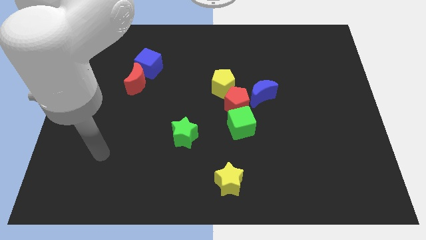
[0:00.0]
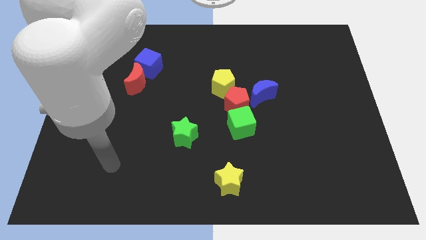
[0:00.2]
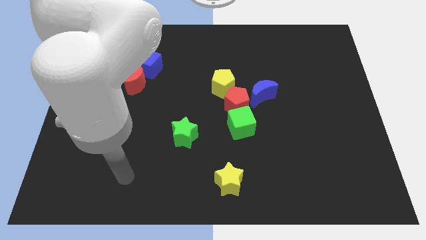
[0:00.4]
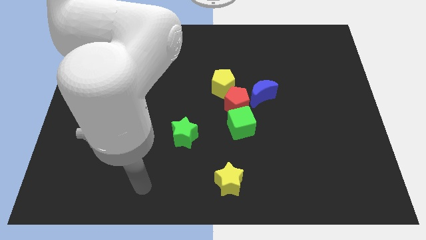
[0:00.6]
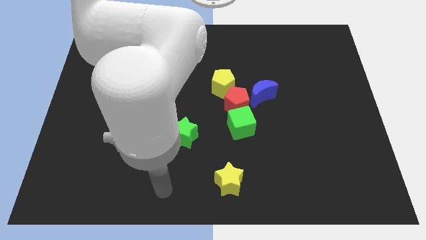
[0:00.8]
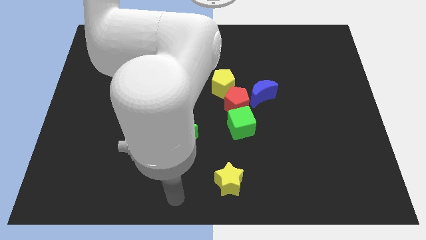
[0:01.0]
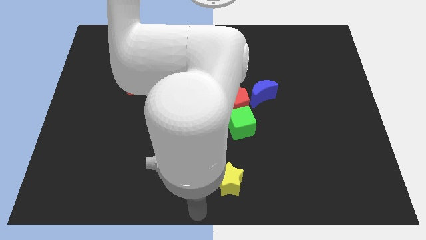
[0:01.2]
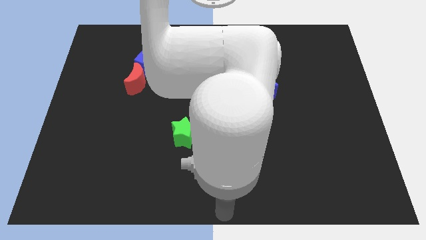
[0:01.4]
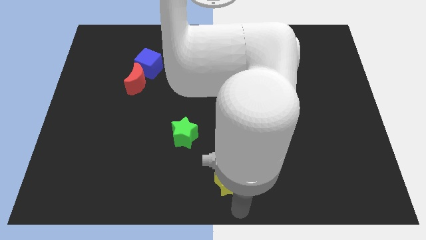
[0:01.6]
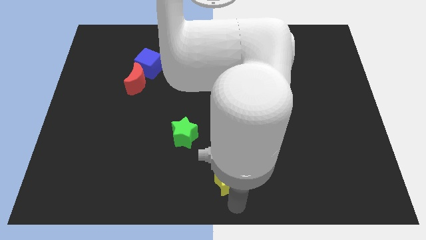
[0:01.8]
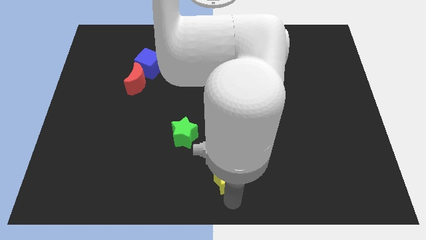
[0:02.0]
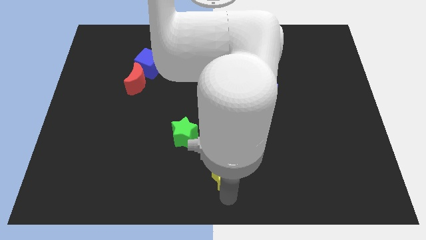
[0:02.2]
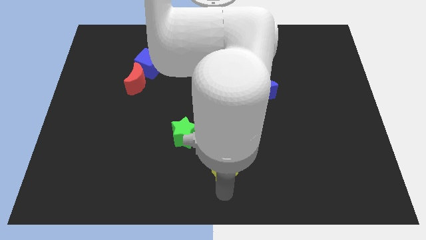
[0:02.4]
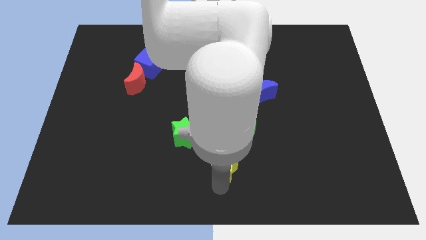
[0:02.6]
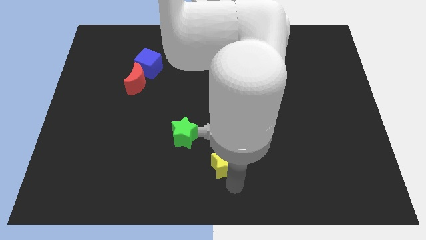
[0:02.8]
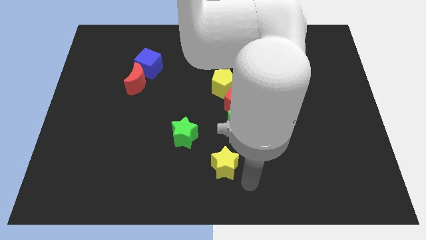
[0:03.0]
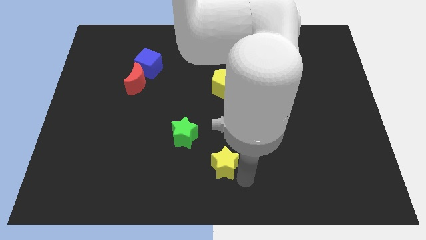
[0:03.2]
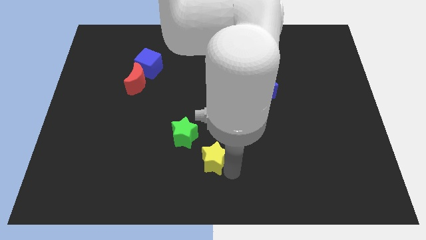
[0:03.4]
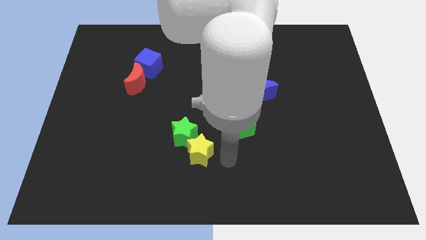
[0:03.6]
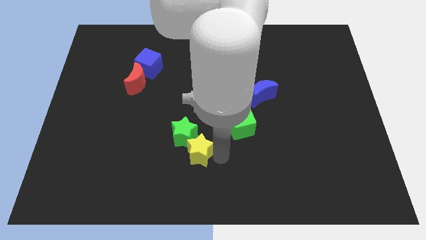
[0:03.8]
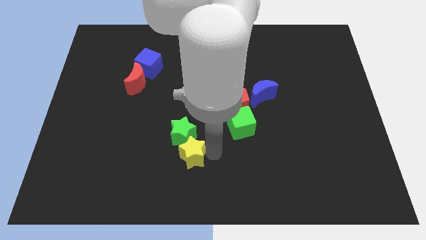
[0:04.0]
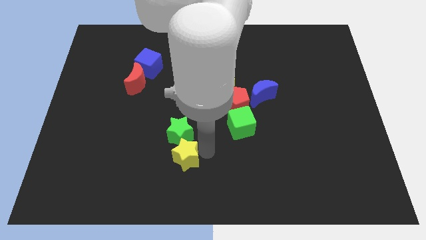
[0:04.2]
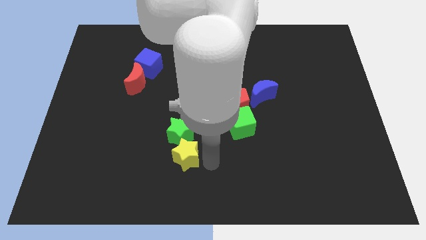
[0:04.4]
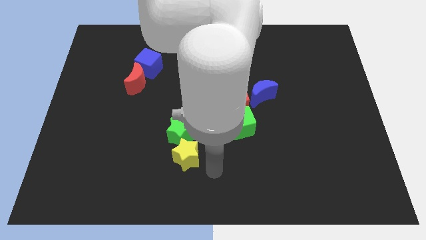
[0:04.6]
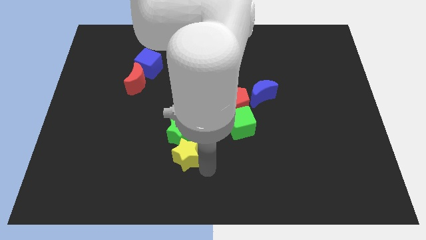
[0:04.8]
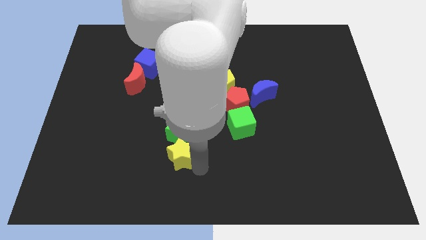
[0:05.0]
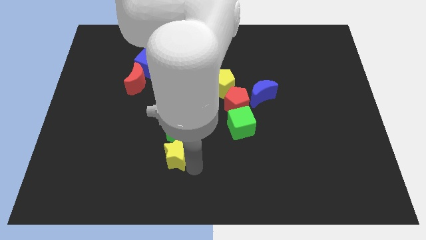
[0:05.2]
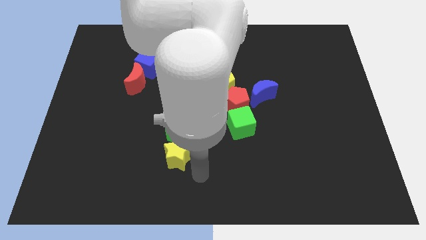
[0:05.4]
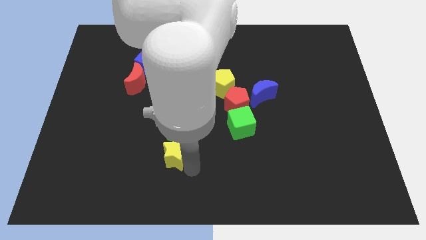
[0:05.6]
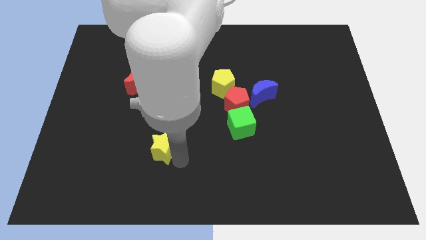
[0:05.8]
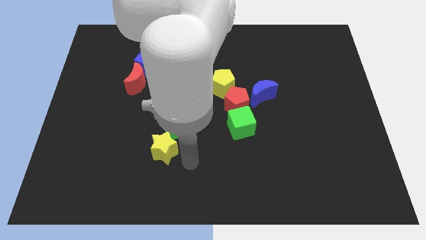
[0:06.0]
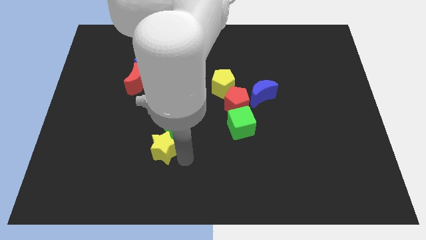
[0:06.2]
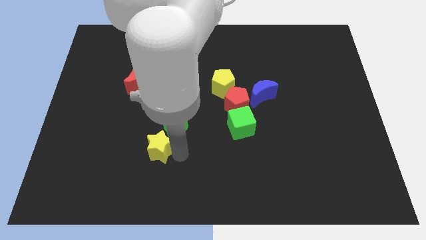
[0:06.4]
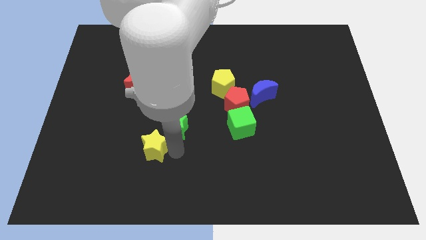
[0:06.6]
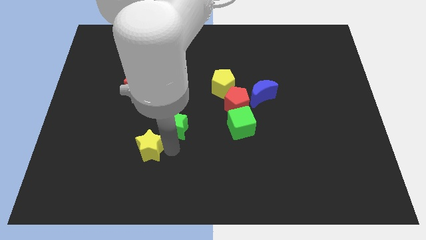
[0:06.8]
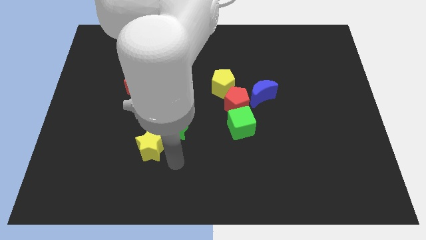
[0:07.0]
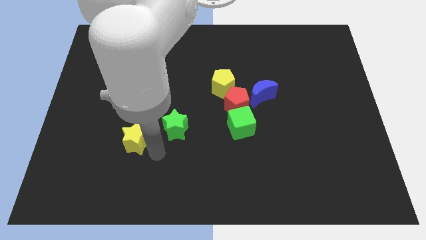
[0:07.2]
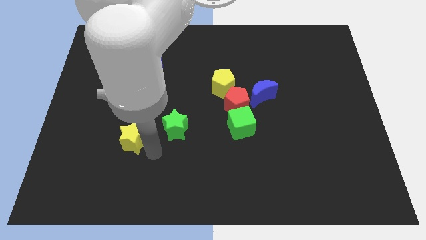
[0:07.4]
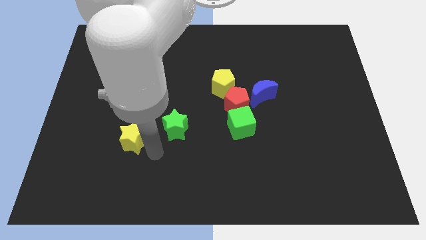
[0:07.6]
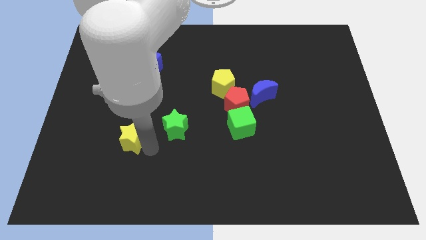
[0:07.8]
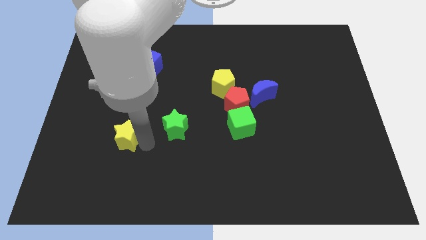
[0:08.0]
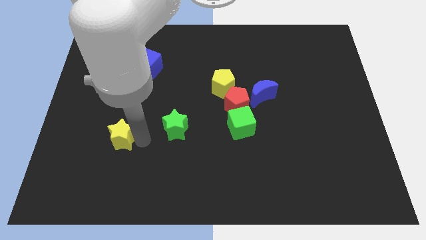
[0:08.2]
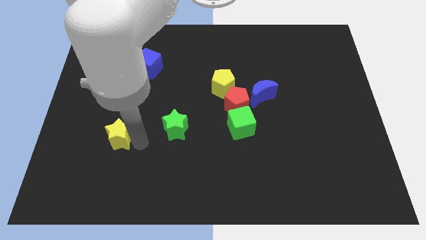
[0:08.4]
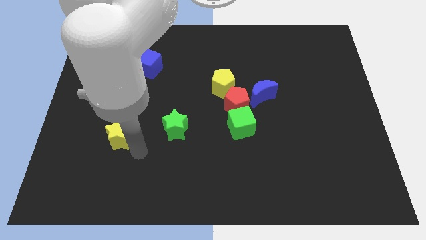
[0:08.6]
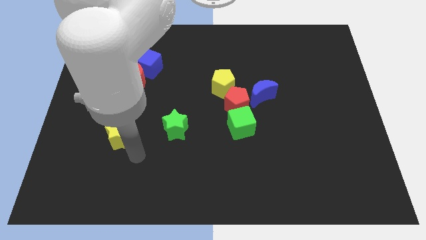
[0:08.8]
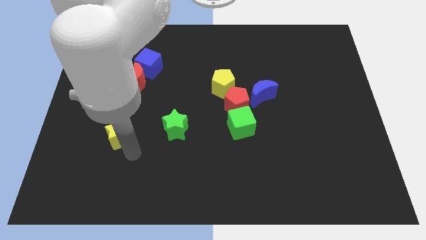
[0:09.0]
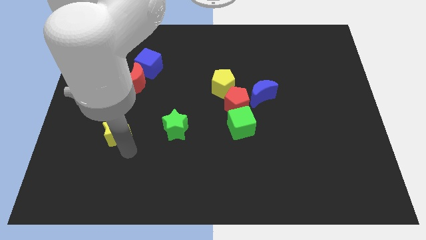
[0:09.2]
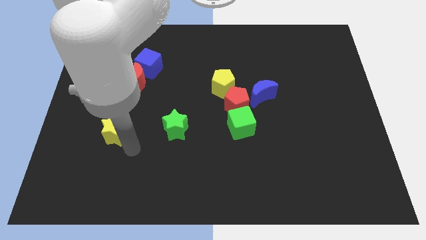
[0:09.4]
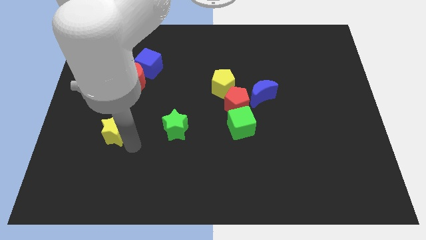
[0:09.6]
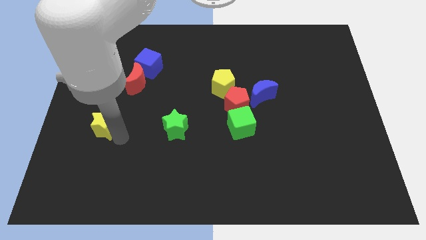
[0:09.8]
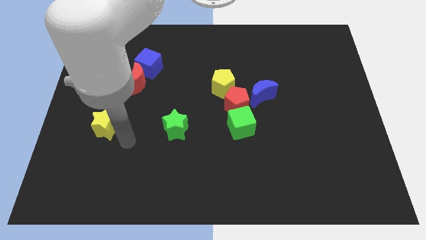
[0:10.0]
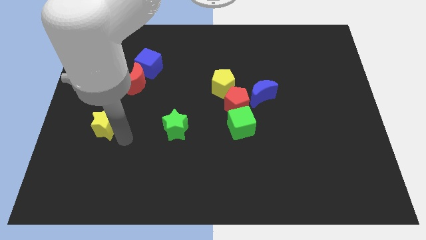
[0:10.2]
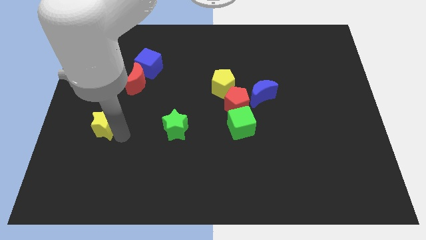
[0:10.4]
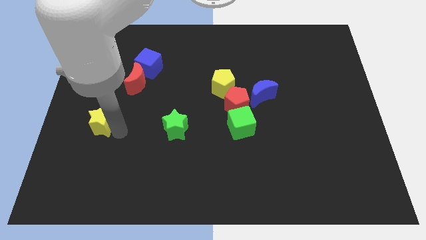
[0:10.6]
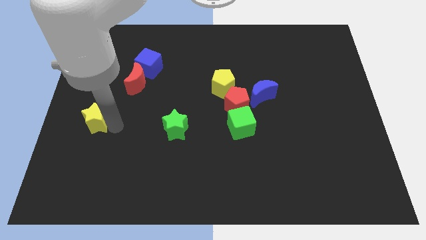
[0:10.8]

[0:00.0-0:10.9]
move the yellow star to the left side

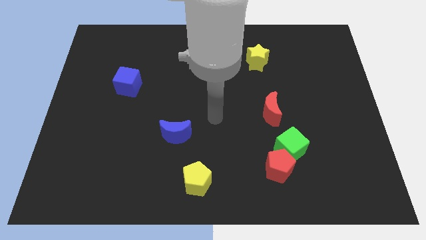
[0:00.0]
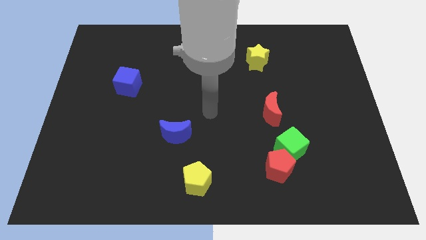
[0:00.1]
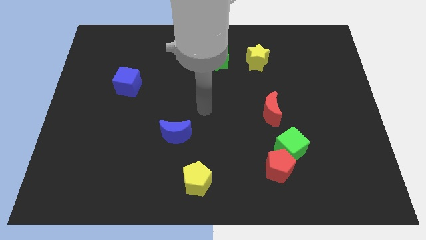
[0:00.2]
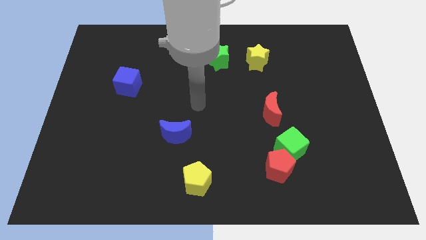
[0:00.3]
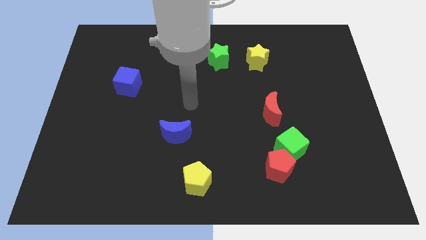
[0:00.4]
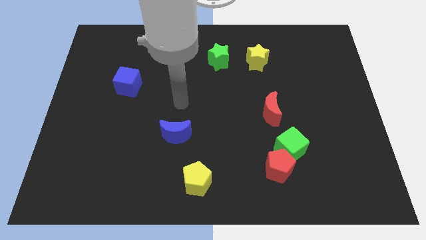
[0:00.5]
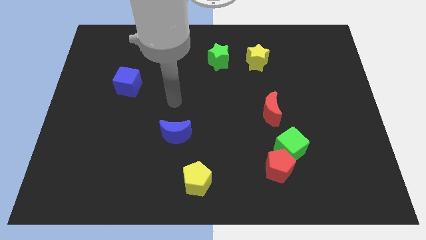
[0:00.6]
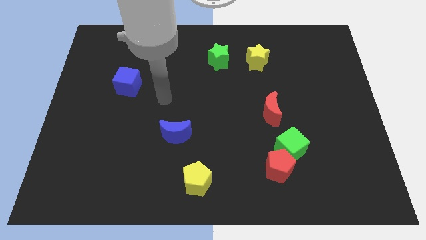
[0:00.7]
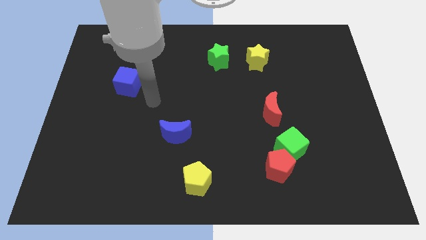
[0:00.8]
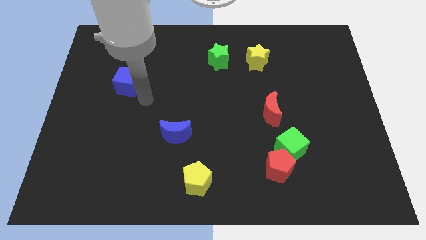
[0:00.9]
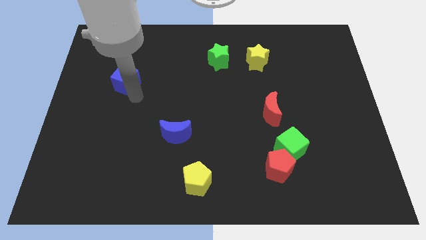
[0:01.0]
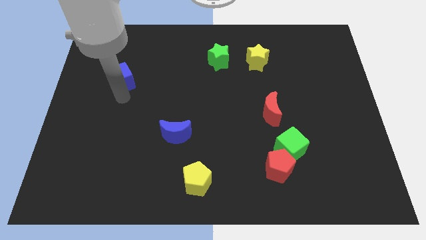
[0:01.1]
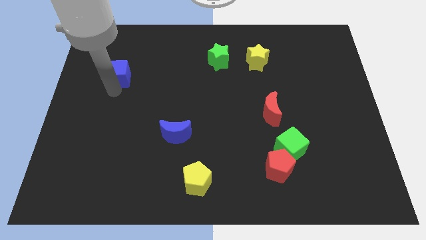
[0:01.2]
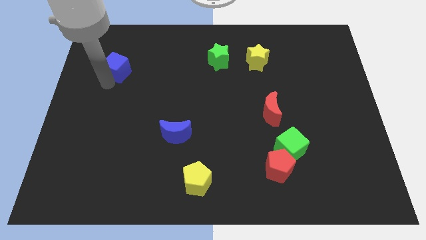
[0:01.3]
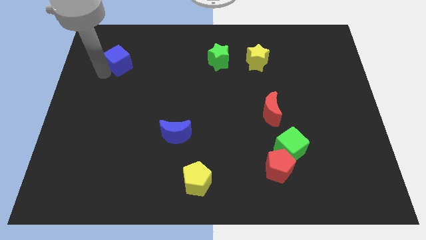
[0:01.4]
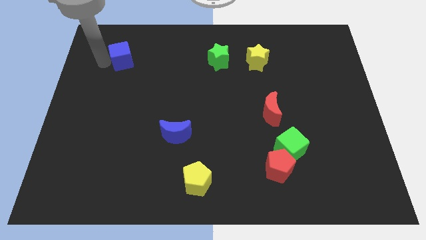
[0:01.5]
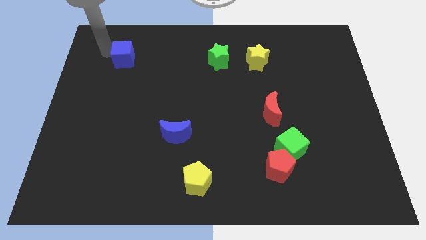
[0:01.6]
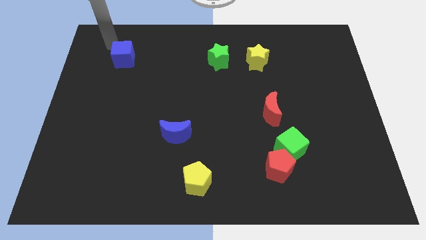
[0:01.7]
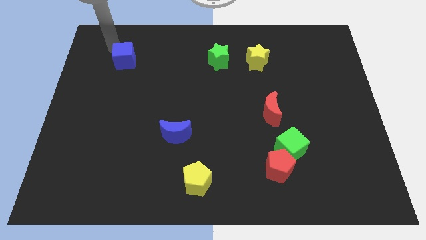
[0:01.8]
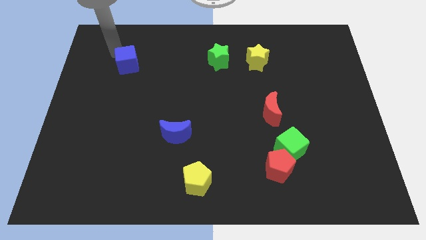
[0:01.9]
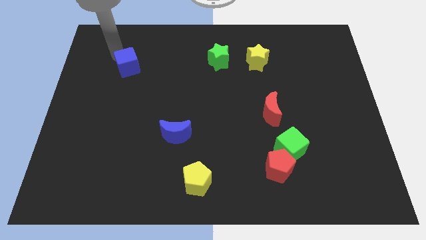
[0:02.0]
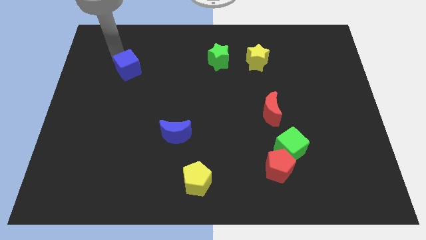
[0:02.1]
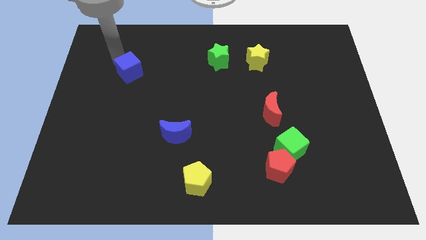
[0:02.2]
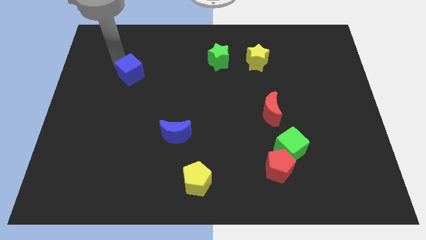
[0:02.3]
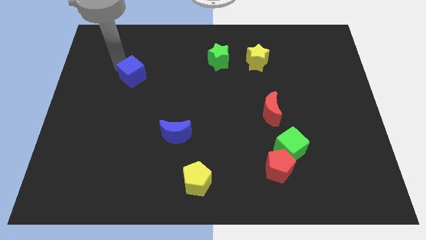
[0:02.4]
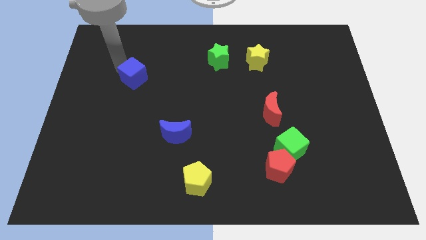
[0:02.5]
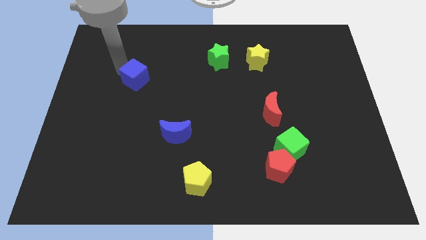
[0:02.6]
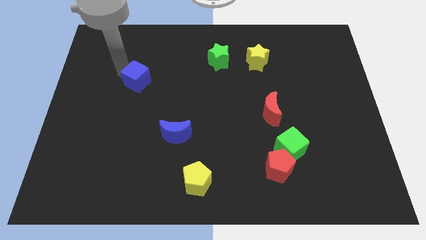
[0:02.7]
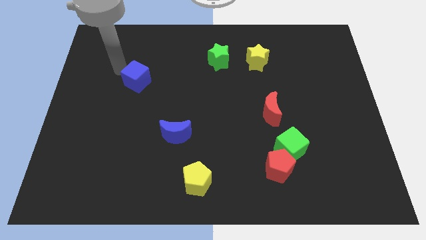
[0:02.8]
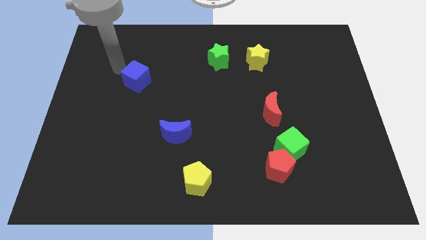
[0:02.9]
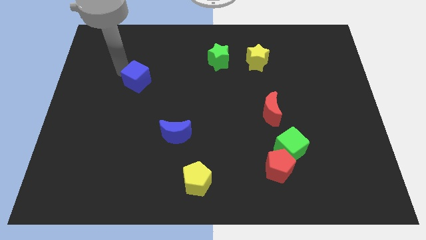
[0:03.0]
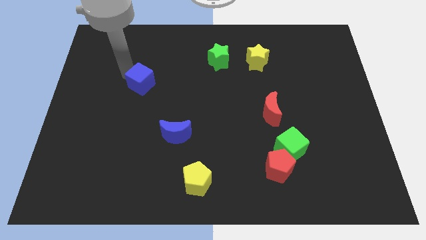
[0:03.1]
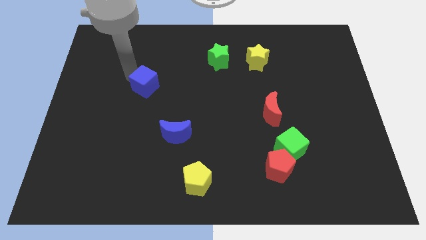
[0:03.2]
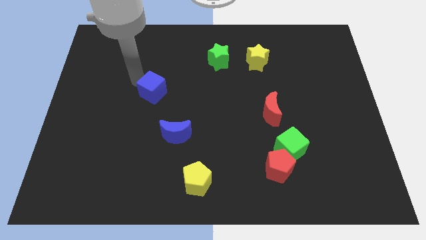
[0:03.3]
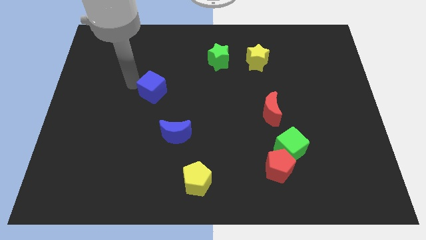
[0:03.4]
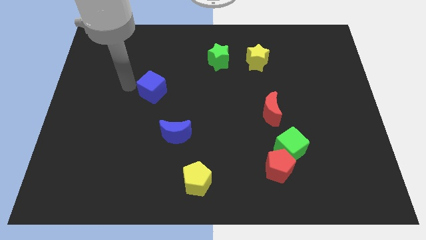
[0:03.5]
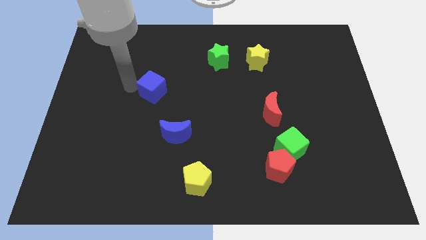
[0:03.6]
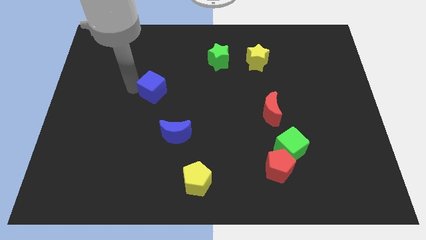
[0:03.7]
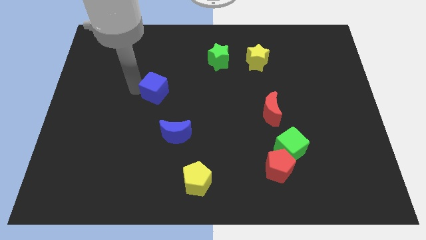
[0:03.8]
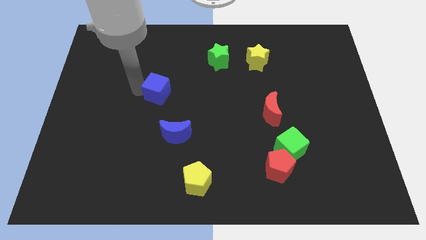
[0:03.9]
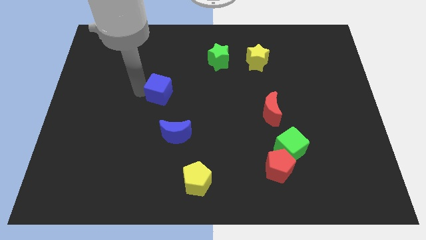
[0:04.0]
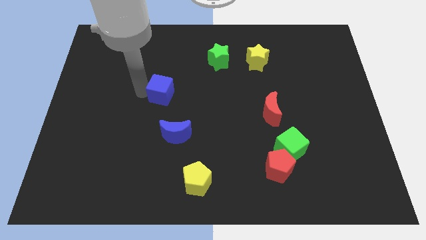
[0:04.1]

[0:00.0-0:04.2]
put the blue cube to the center
